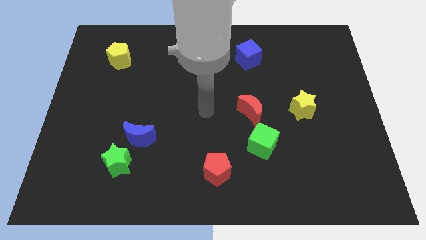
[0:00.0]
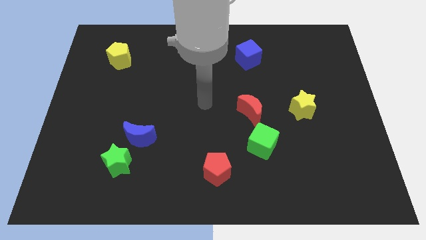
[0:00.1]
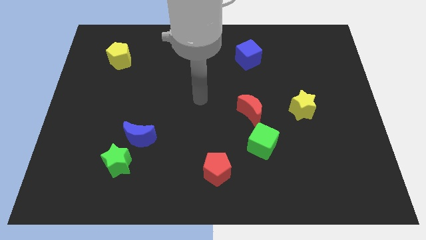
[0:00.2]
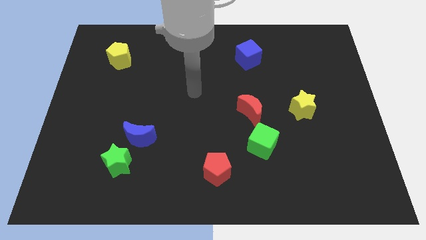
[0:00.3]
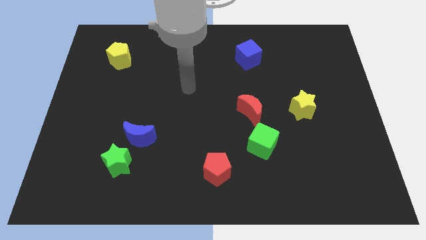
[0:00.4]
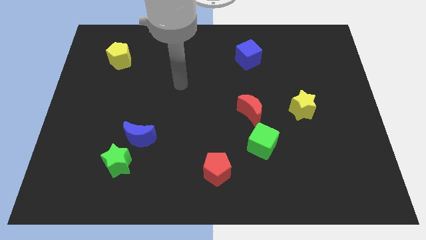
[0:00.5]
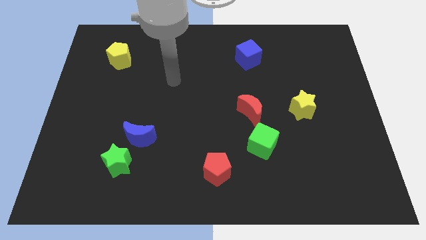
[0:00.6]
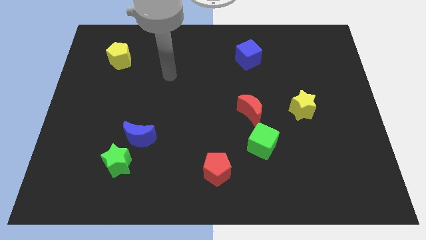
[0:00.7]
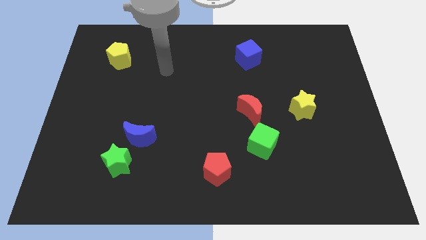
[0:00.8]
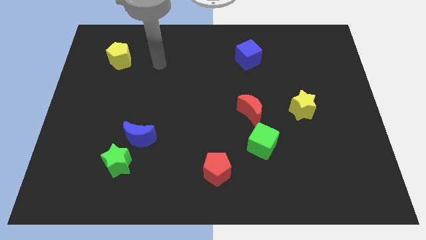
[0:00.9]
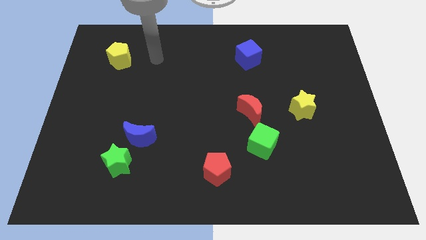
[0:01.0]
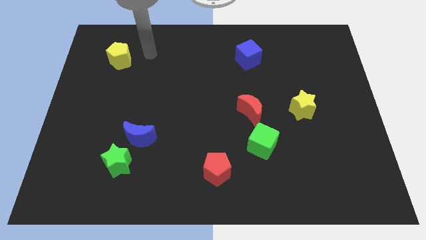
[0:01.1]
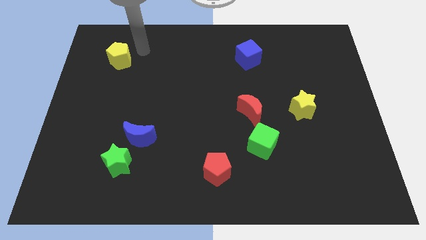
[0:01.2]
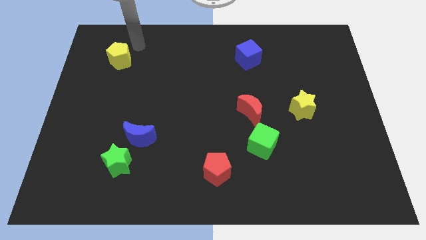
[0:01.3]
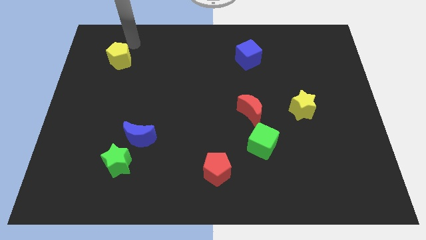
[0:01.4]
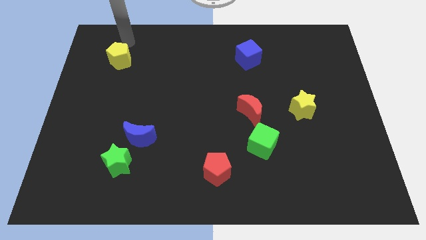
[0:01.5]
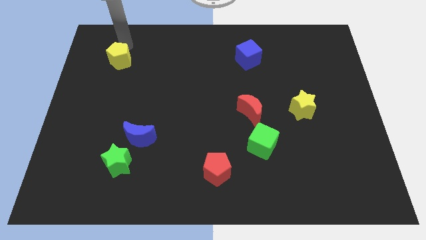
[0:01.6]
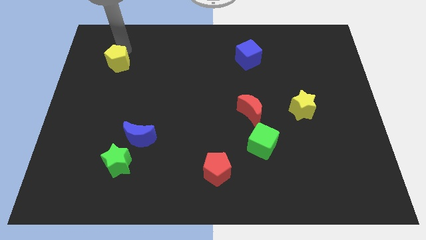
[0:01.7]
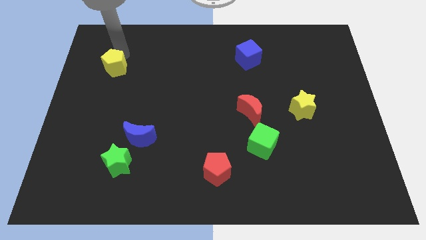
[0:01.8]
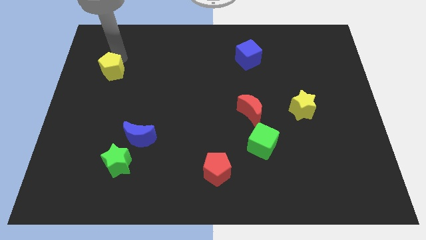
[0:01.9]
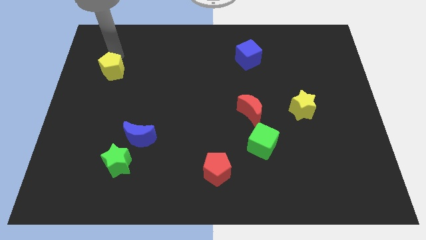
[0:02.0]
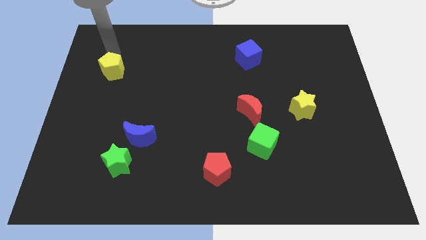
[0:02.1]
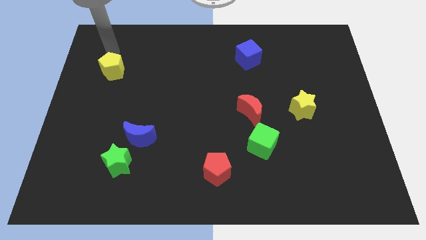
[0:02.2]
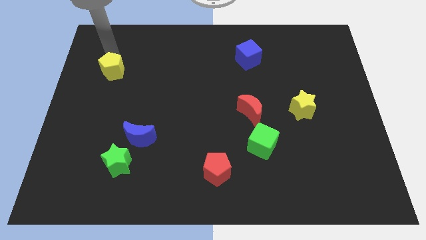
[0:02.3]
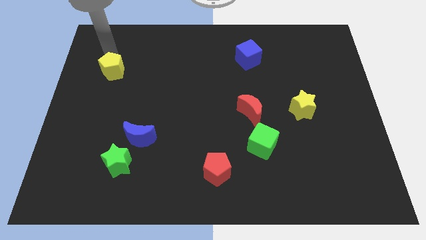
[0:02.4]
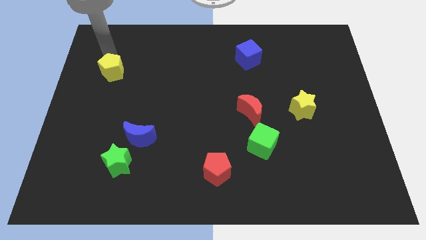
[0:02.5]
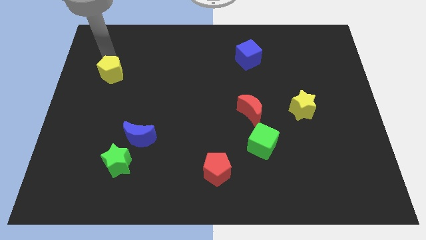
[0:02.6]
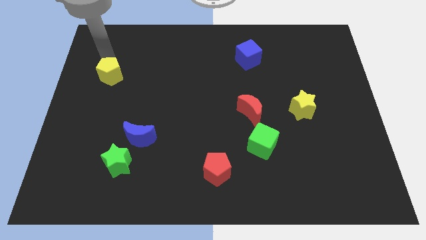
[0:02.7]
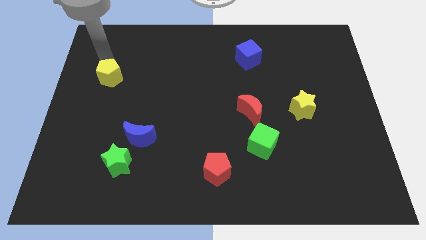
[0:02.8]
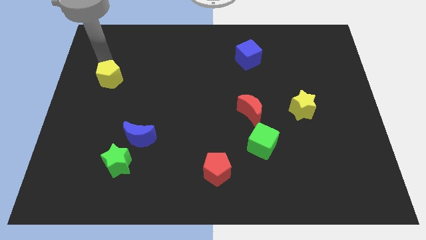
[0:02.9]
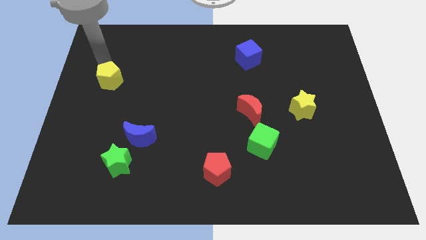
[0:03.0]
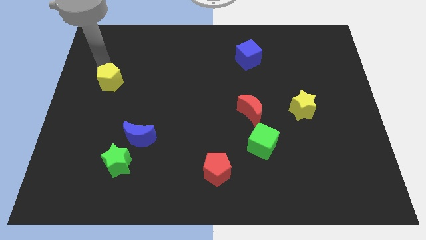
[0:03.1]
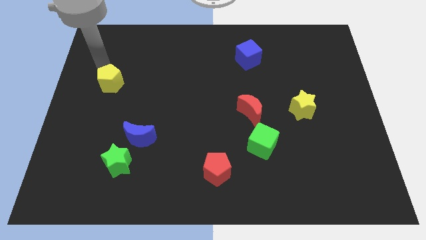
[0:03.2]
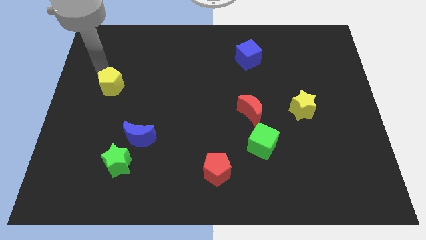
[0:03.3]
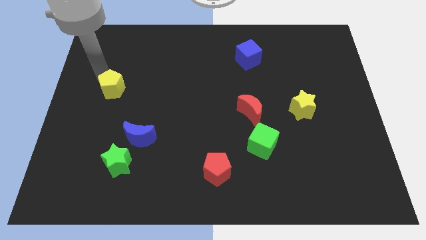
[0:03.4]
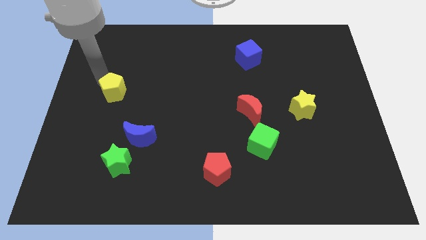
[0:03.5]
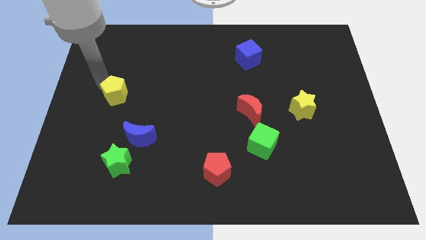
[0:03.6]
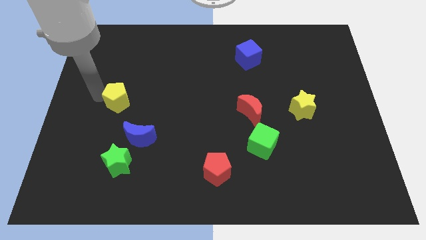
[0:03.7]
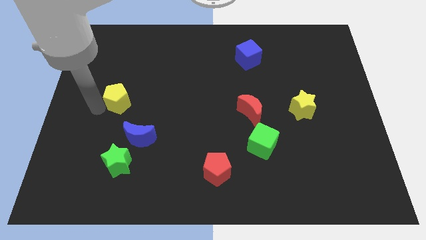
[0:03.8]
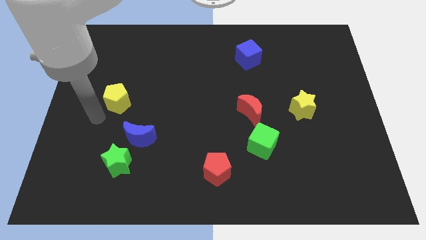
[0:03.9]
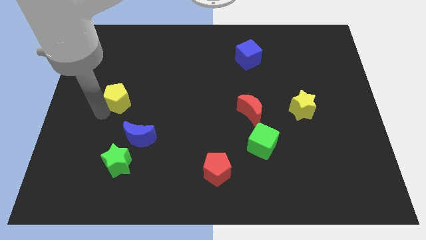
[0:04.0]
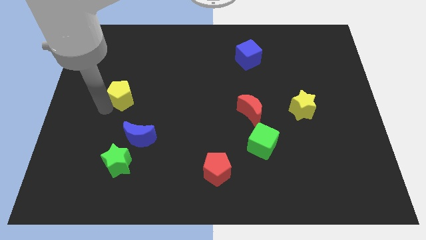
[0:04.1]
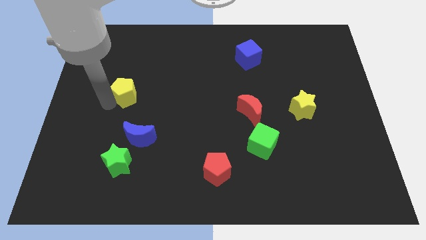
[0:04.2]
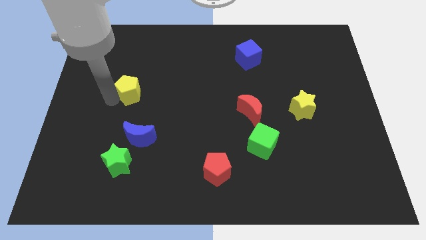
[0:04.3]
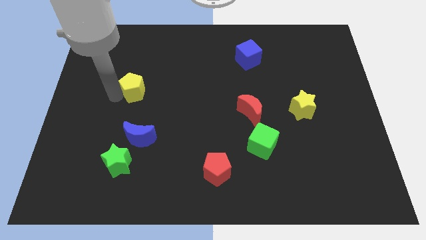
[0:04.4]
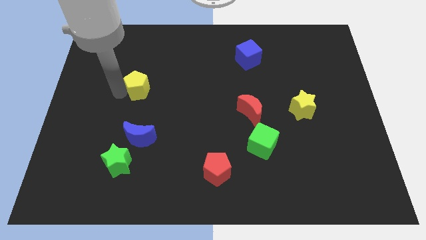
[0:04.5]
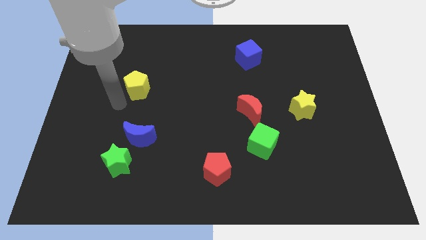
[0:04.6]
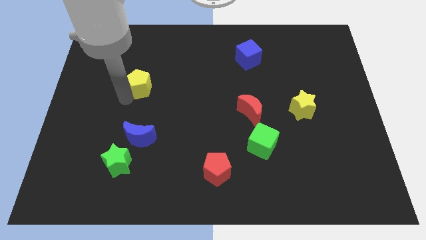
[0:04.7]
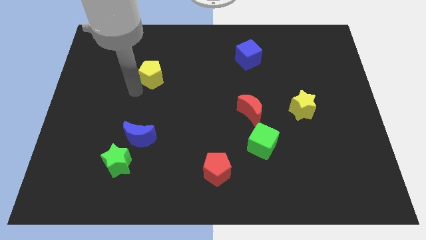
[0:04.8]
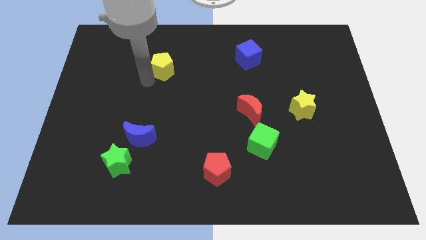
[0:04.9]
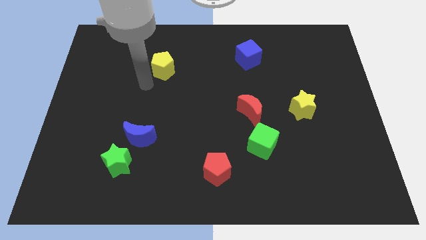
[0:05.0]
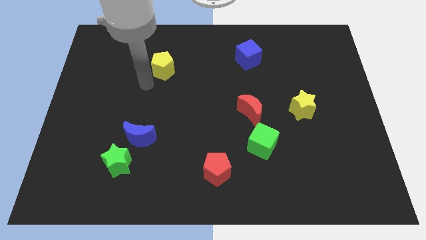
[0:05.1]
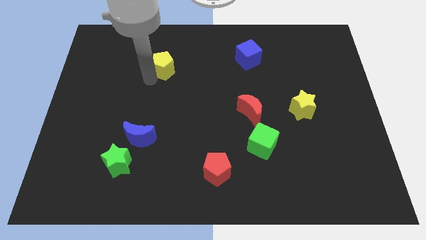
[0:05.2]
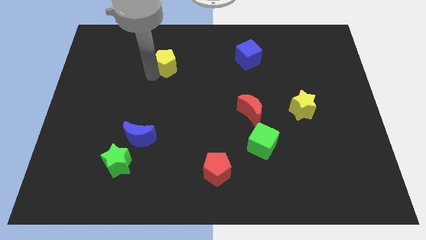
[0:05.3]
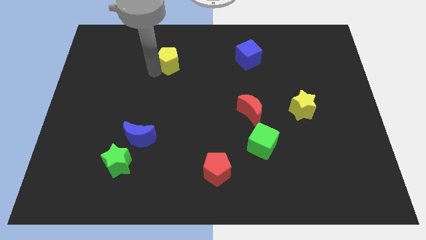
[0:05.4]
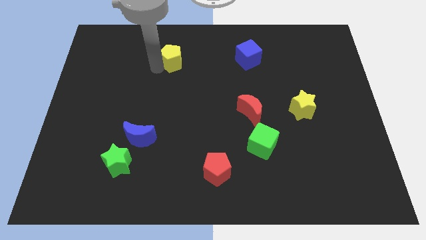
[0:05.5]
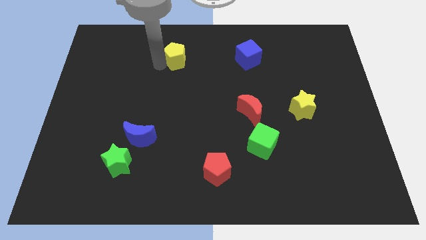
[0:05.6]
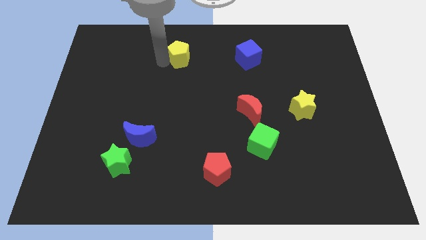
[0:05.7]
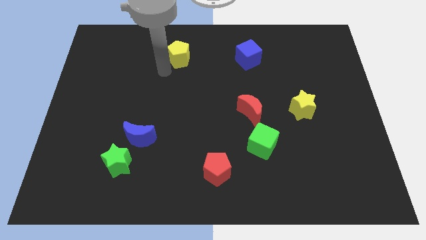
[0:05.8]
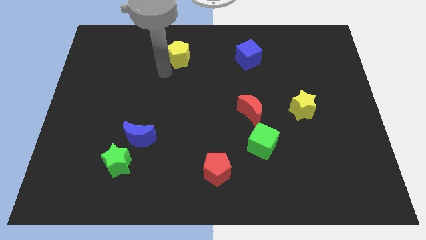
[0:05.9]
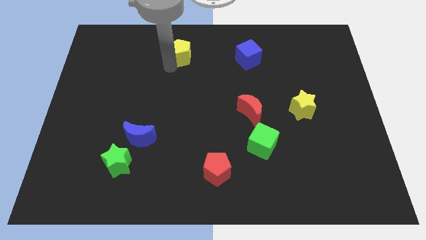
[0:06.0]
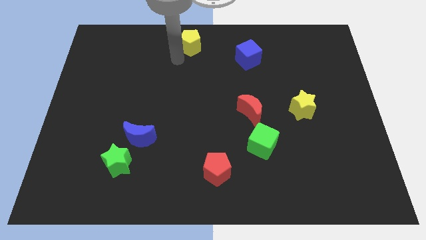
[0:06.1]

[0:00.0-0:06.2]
push the yellow pentagon to the top
